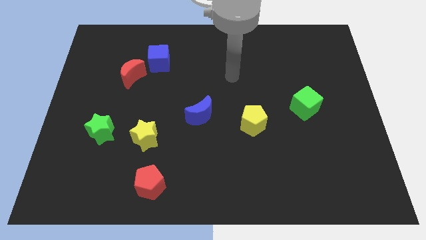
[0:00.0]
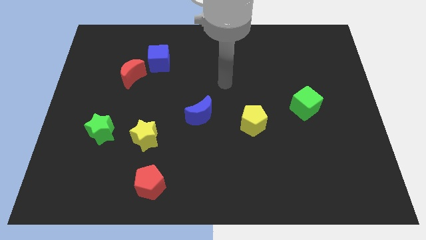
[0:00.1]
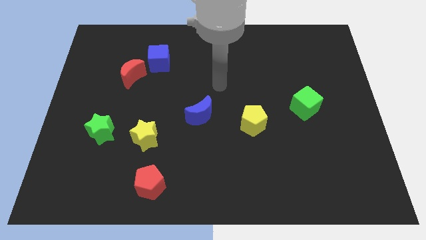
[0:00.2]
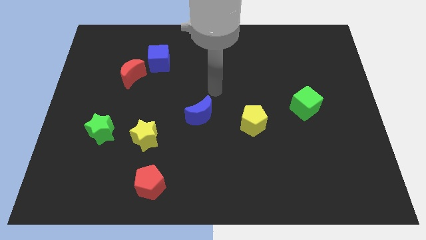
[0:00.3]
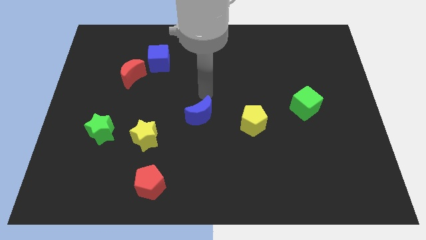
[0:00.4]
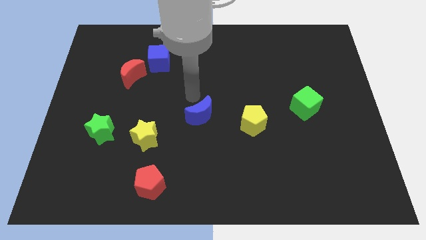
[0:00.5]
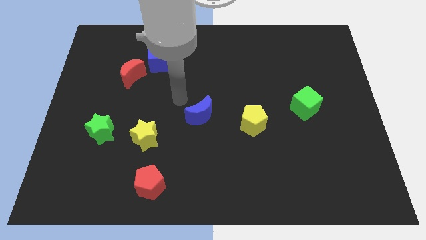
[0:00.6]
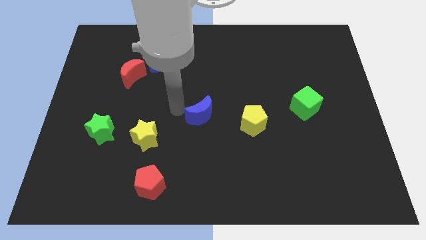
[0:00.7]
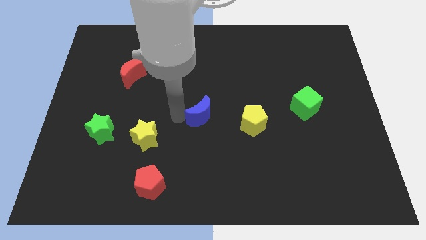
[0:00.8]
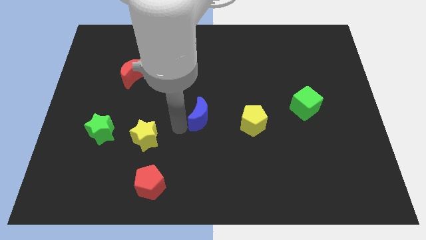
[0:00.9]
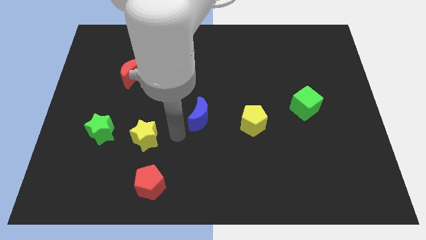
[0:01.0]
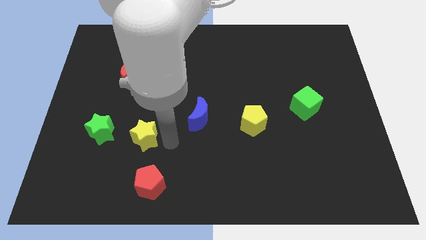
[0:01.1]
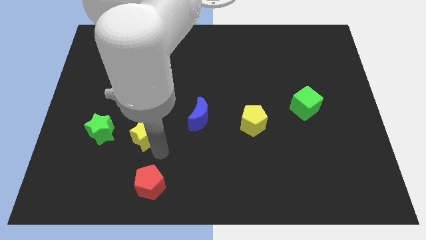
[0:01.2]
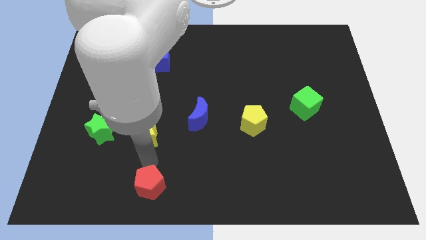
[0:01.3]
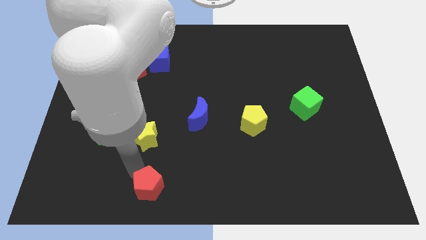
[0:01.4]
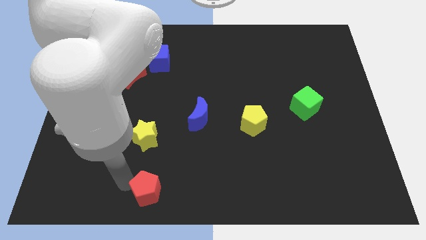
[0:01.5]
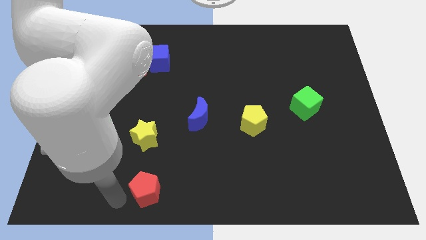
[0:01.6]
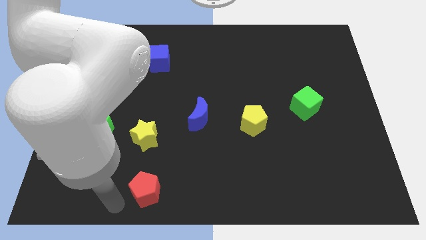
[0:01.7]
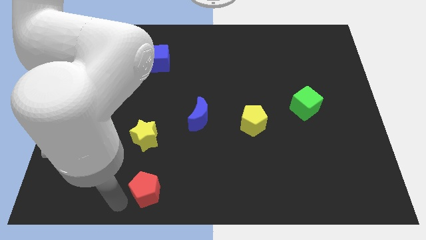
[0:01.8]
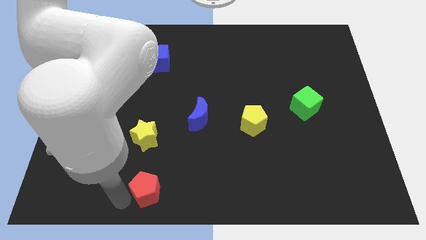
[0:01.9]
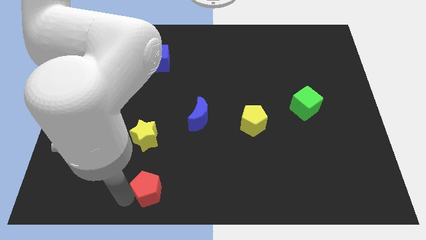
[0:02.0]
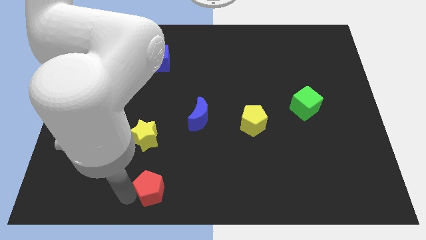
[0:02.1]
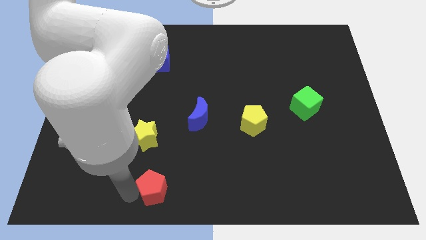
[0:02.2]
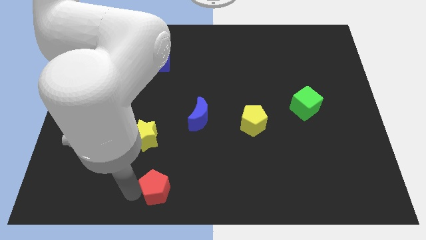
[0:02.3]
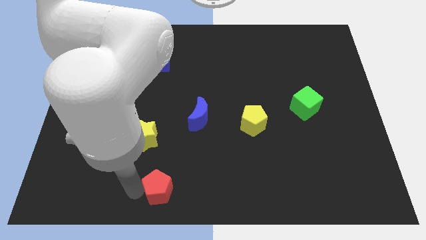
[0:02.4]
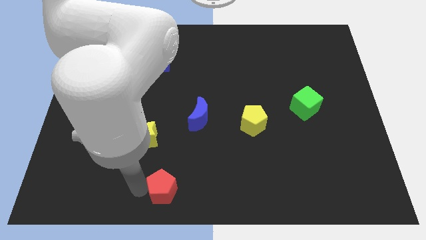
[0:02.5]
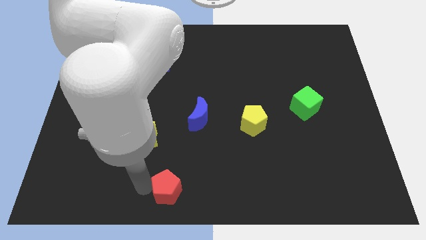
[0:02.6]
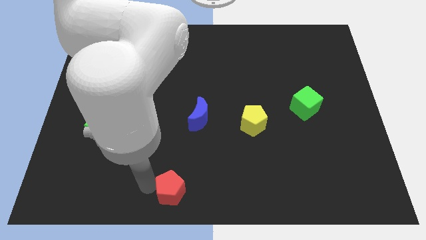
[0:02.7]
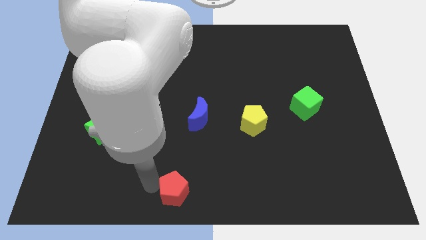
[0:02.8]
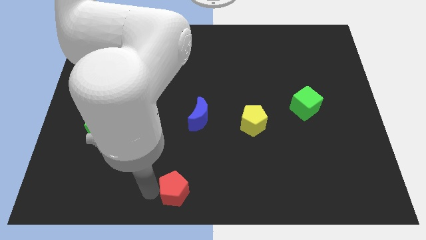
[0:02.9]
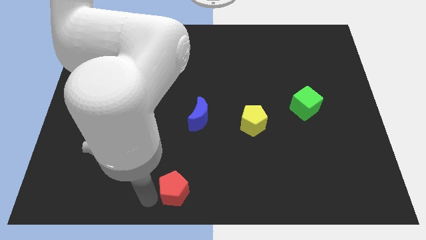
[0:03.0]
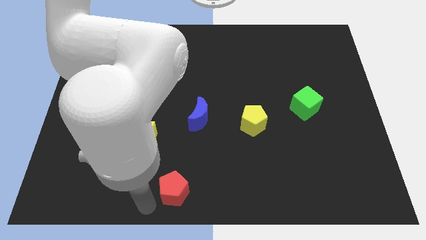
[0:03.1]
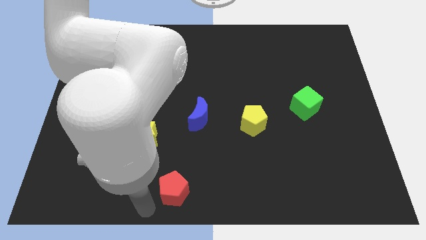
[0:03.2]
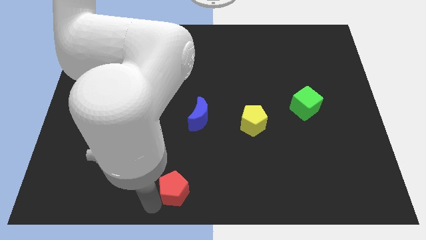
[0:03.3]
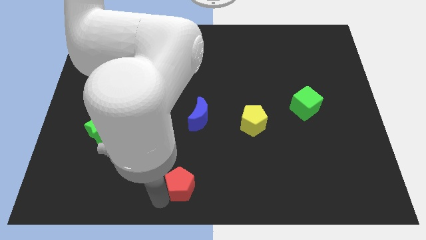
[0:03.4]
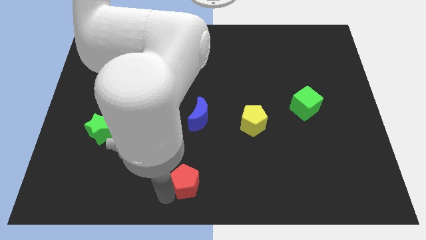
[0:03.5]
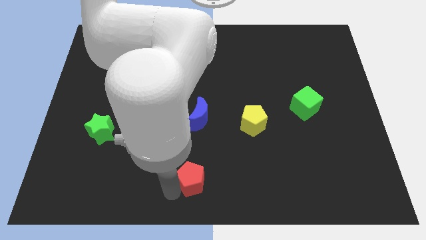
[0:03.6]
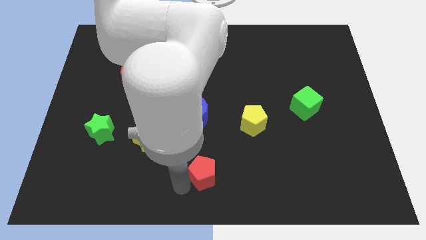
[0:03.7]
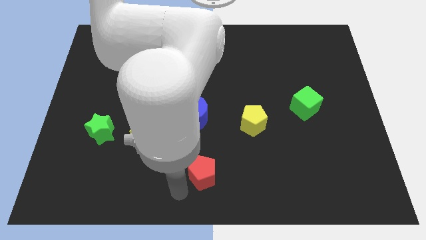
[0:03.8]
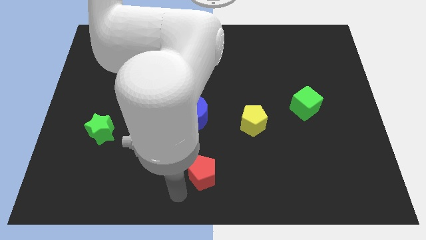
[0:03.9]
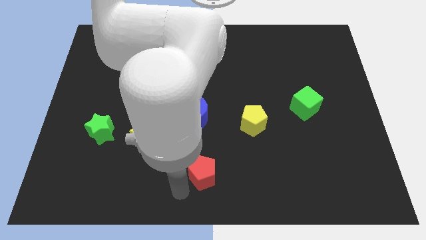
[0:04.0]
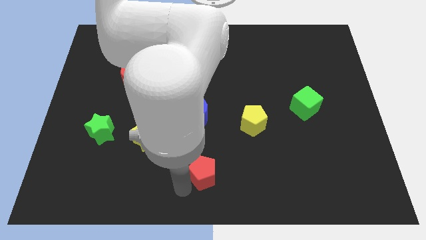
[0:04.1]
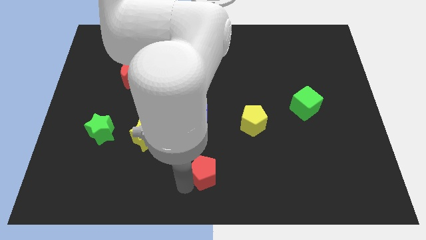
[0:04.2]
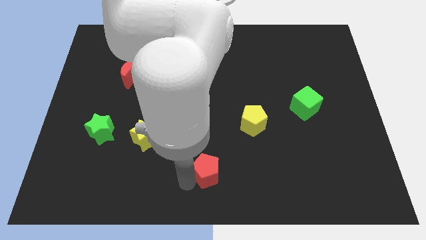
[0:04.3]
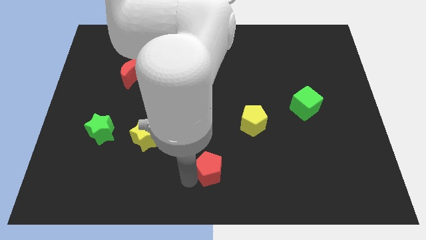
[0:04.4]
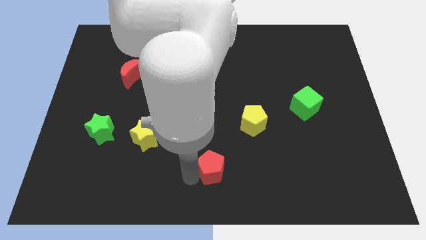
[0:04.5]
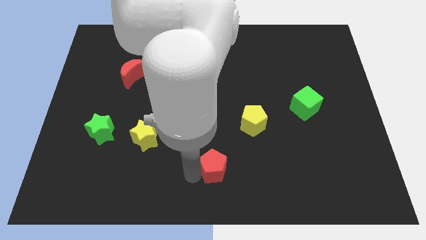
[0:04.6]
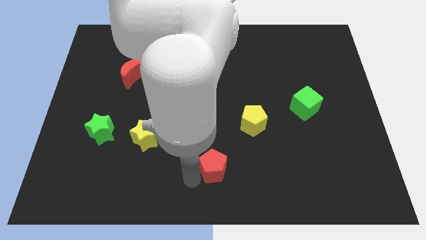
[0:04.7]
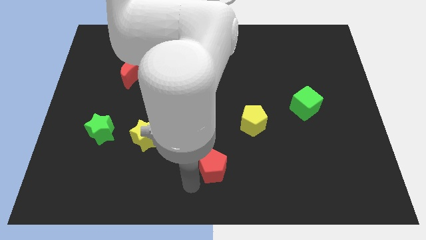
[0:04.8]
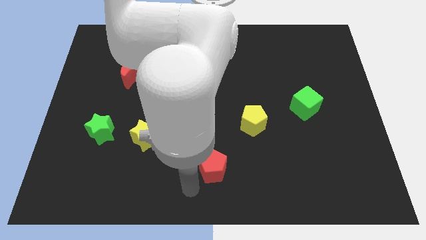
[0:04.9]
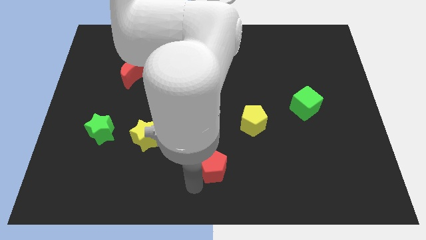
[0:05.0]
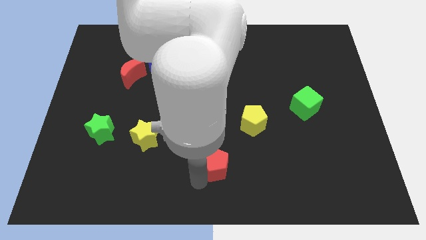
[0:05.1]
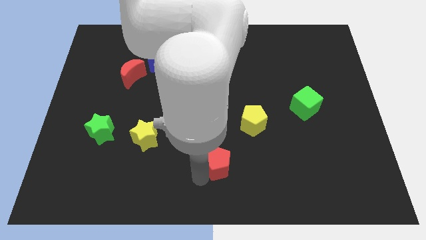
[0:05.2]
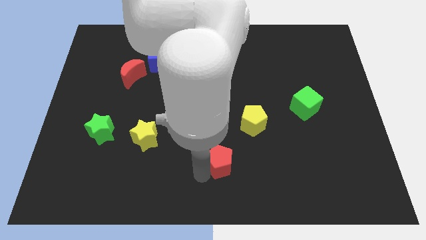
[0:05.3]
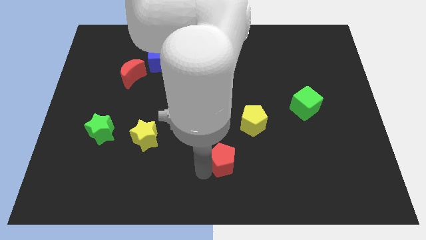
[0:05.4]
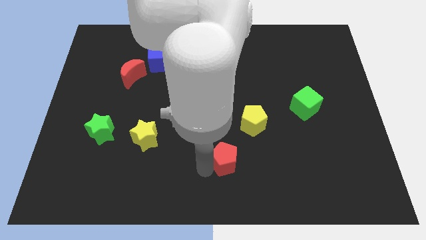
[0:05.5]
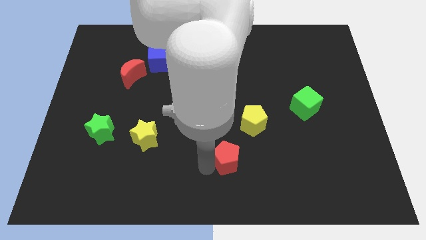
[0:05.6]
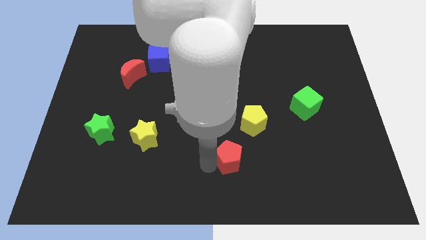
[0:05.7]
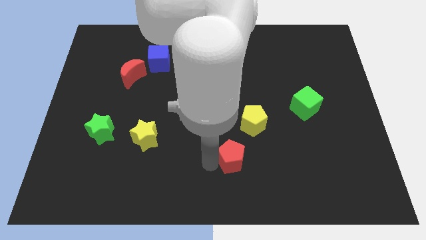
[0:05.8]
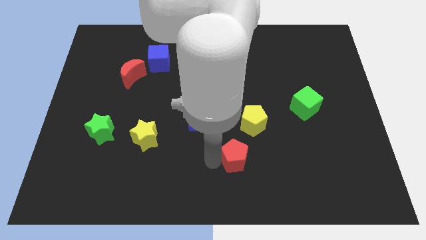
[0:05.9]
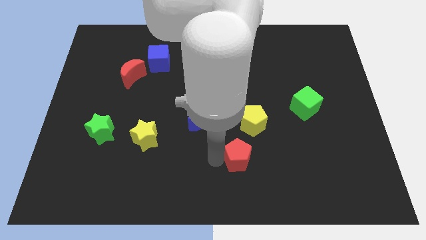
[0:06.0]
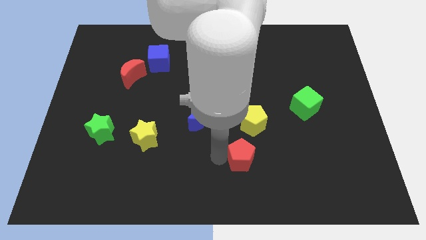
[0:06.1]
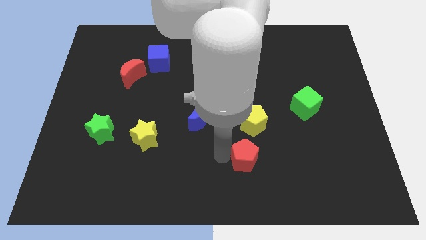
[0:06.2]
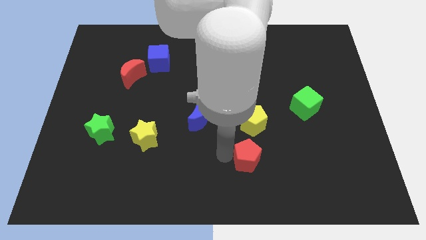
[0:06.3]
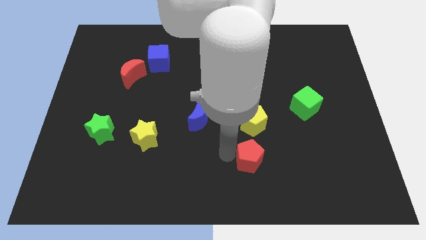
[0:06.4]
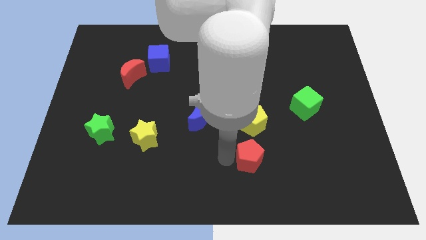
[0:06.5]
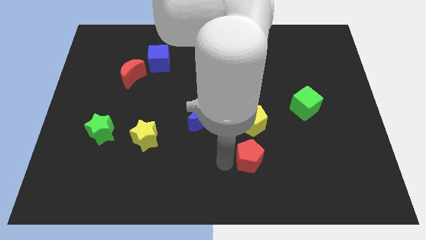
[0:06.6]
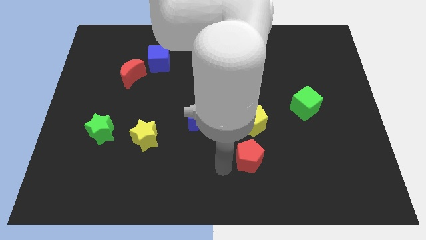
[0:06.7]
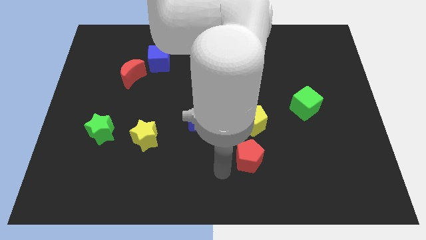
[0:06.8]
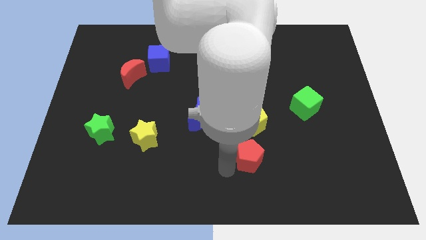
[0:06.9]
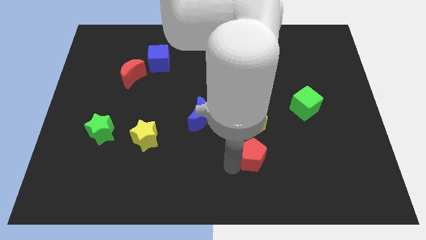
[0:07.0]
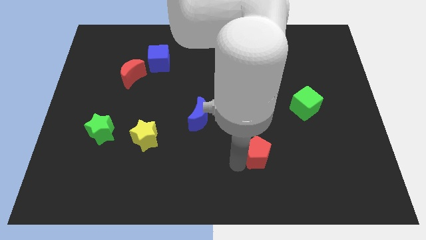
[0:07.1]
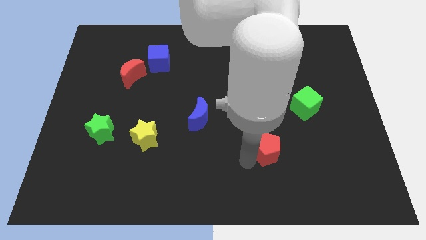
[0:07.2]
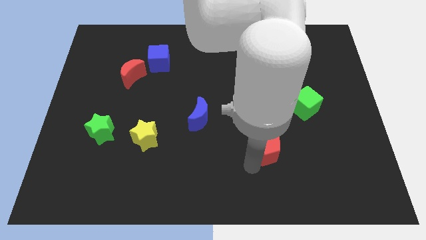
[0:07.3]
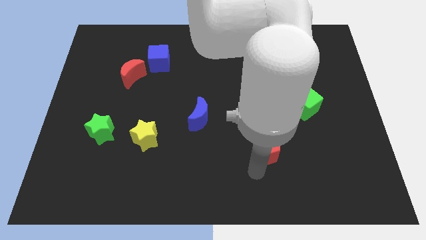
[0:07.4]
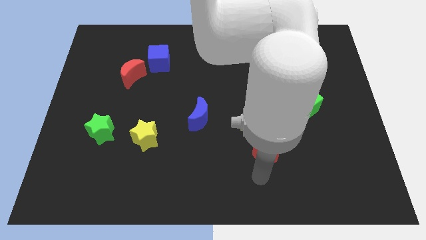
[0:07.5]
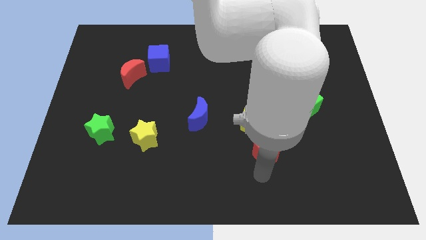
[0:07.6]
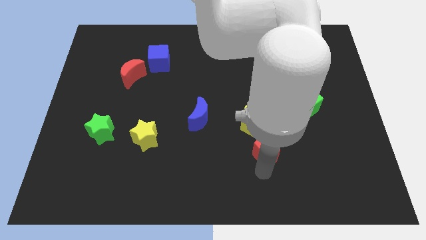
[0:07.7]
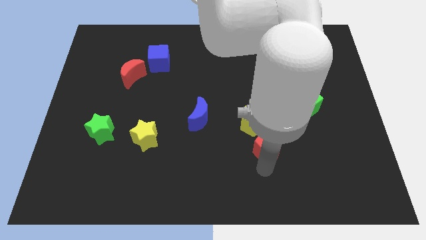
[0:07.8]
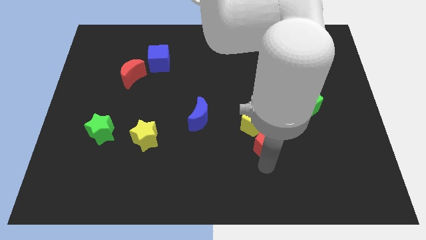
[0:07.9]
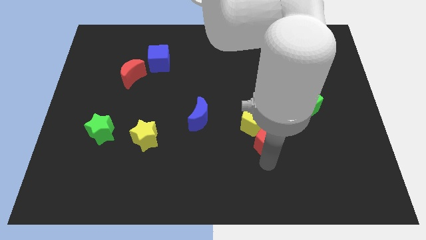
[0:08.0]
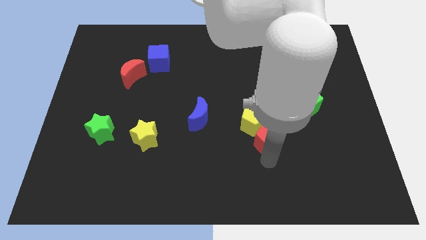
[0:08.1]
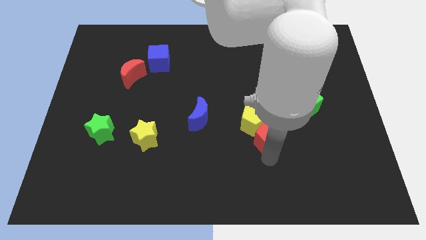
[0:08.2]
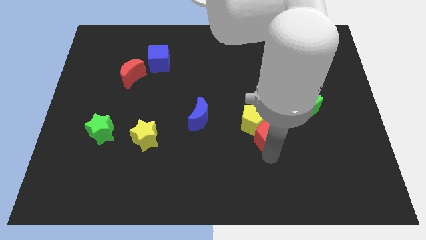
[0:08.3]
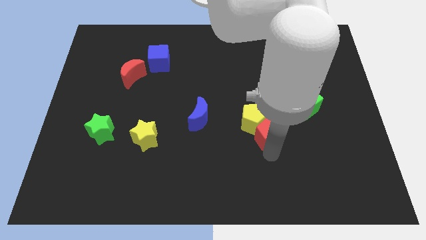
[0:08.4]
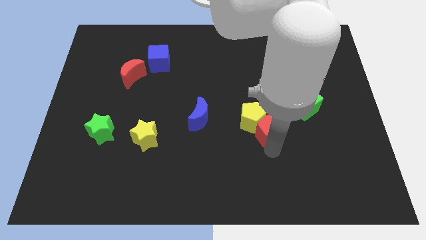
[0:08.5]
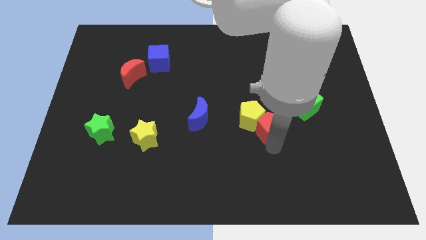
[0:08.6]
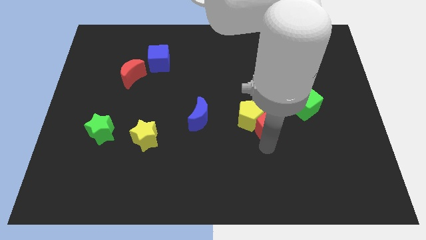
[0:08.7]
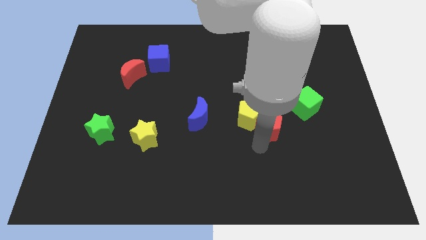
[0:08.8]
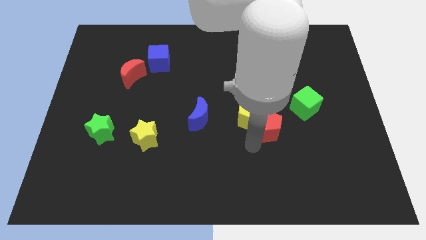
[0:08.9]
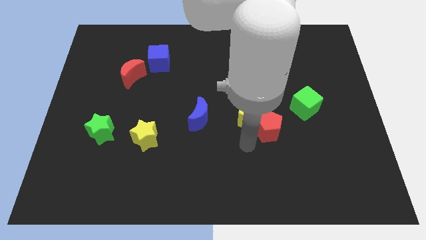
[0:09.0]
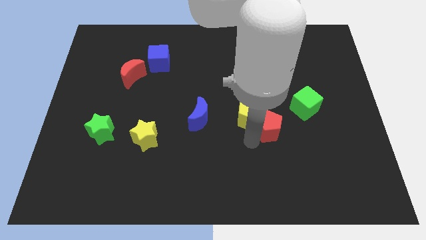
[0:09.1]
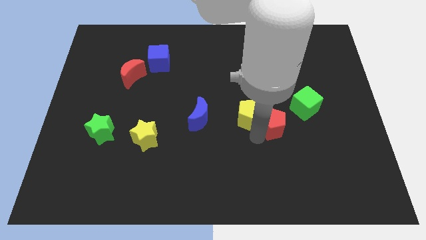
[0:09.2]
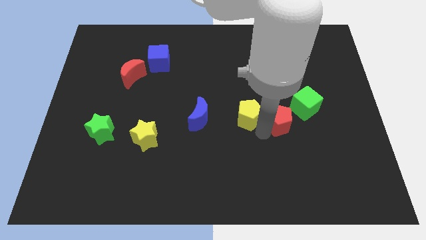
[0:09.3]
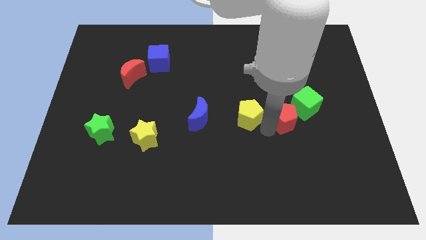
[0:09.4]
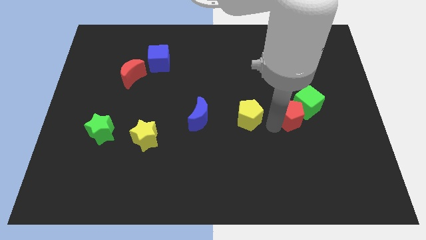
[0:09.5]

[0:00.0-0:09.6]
slide the red pentagon next to the green cube
